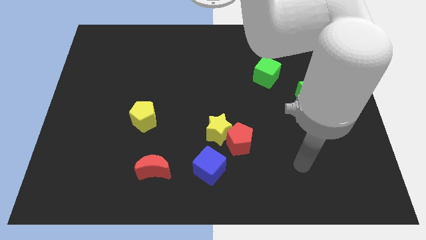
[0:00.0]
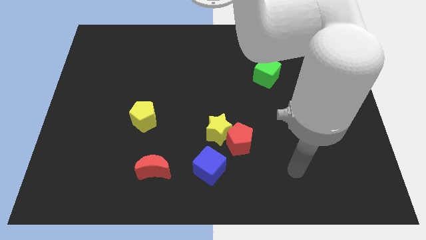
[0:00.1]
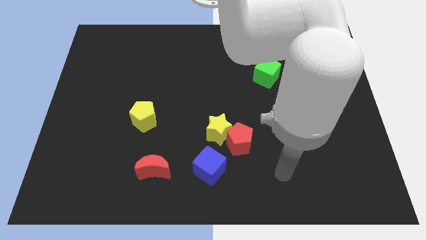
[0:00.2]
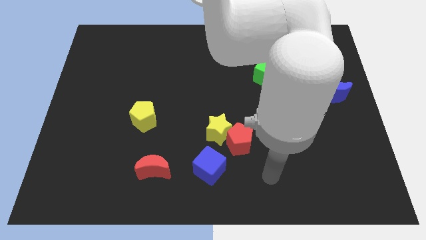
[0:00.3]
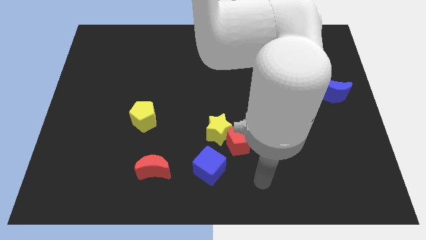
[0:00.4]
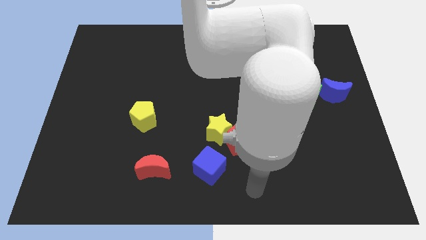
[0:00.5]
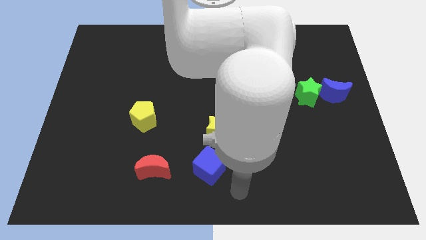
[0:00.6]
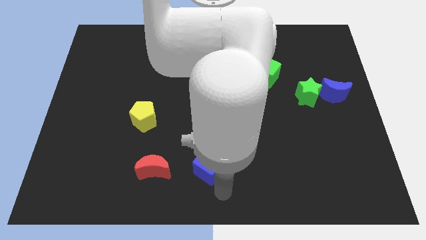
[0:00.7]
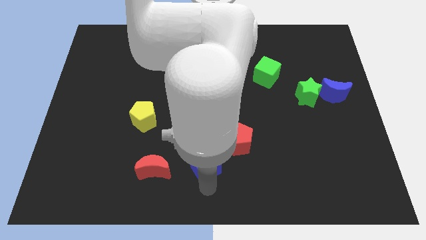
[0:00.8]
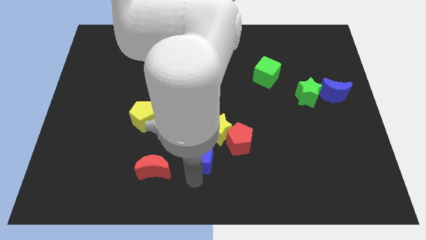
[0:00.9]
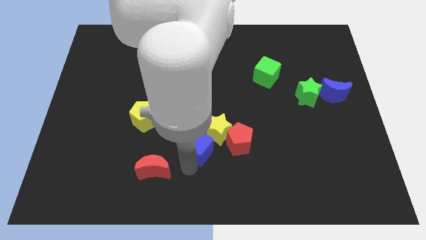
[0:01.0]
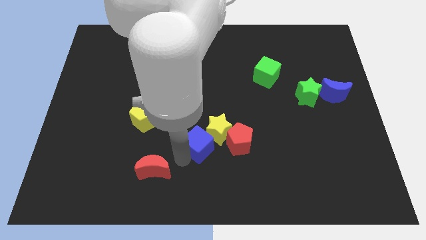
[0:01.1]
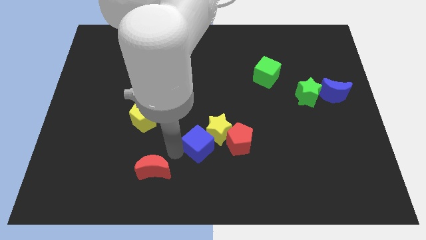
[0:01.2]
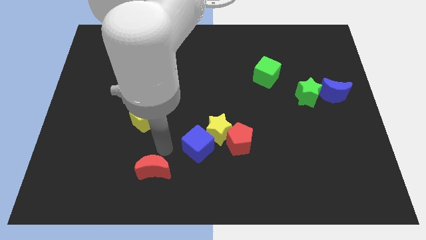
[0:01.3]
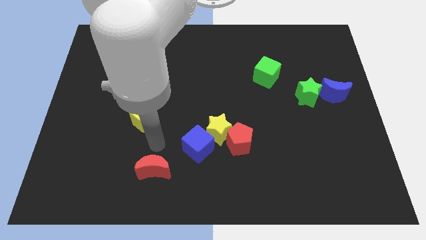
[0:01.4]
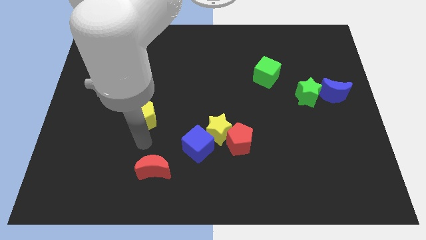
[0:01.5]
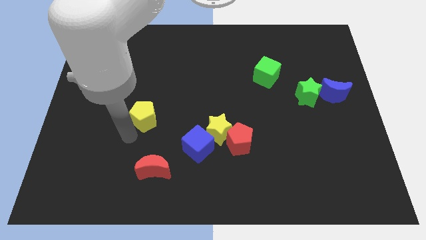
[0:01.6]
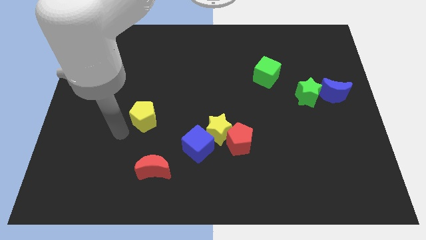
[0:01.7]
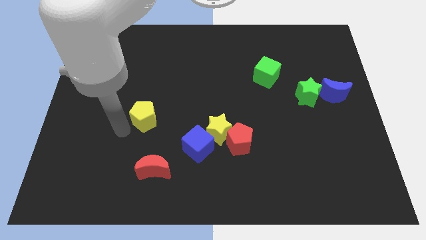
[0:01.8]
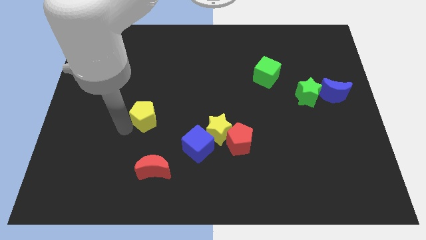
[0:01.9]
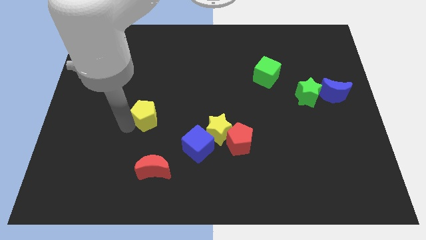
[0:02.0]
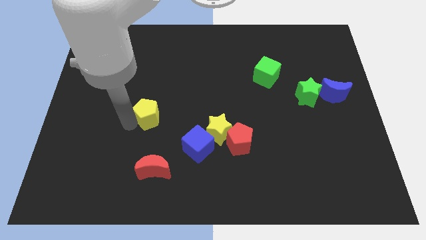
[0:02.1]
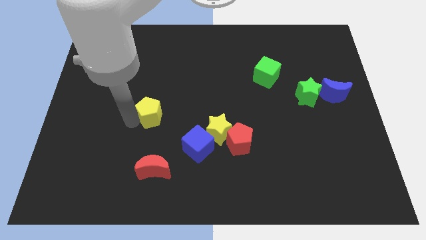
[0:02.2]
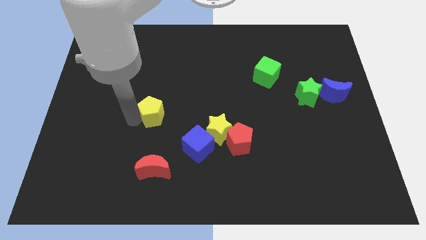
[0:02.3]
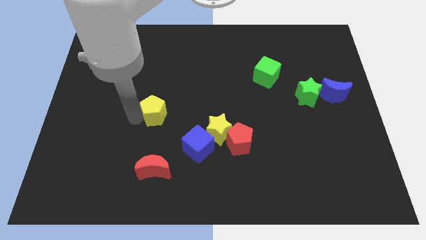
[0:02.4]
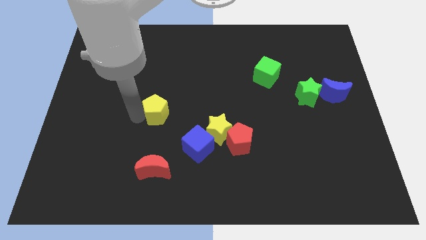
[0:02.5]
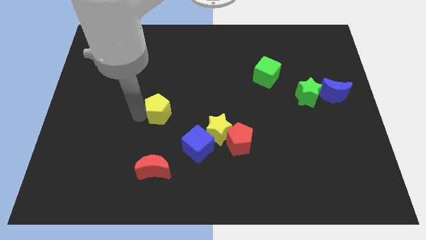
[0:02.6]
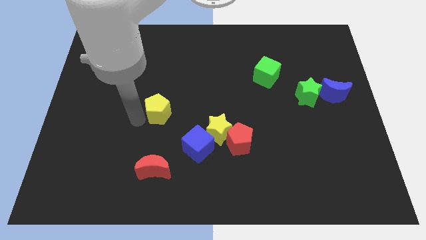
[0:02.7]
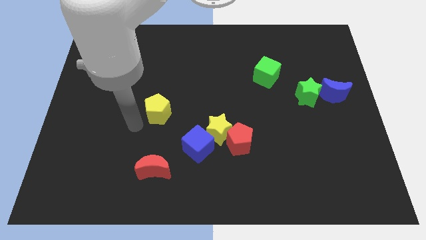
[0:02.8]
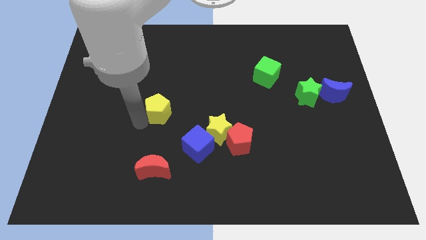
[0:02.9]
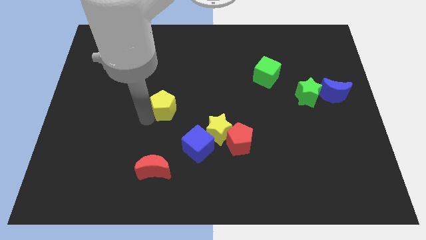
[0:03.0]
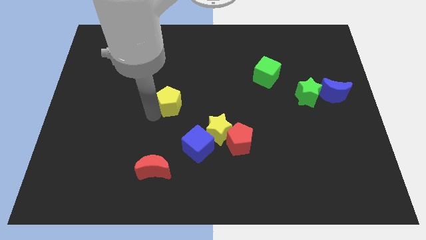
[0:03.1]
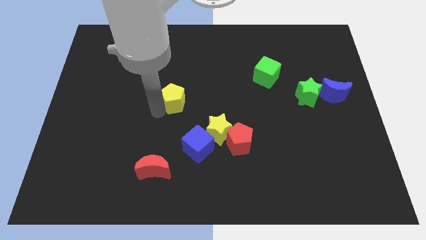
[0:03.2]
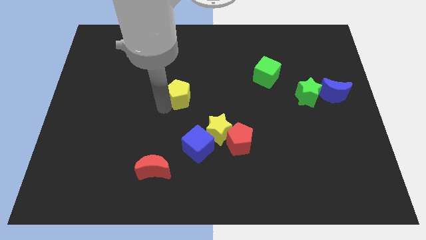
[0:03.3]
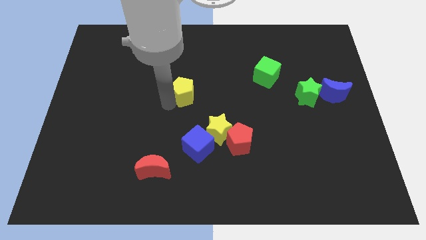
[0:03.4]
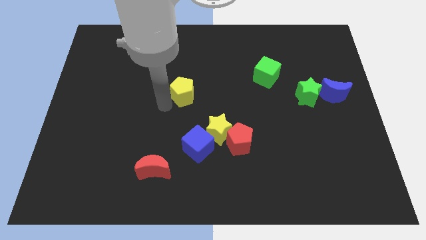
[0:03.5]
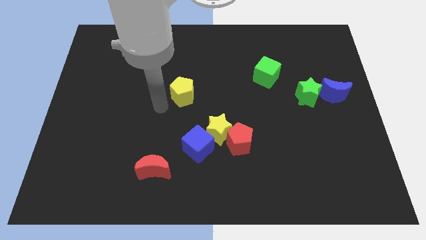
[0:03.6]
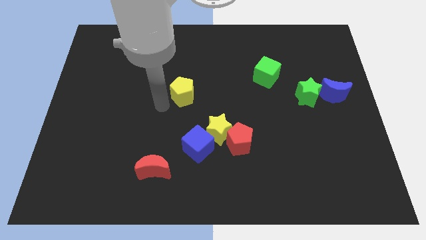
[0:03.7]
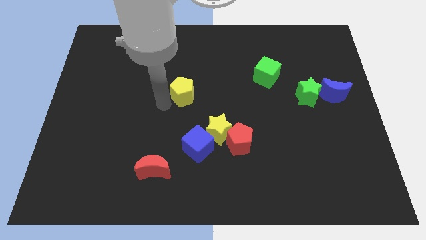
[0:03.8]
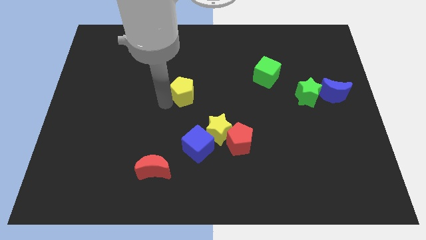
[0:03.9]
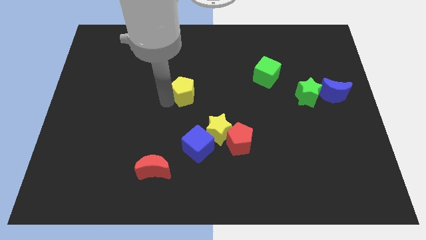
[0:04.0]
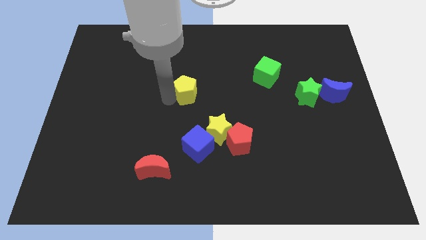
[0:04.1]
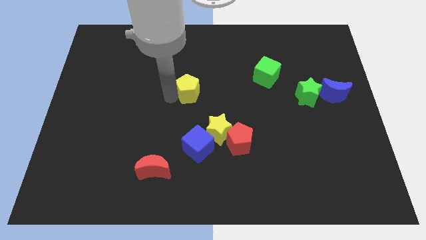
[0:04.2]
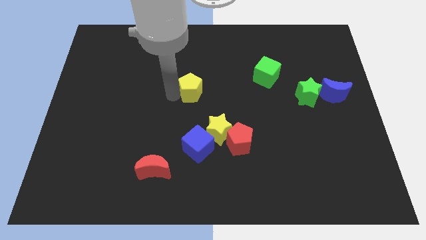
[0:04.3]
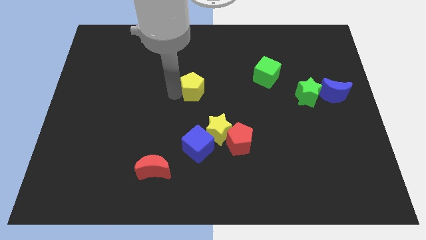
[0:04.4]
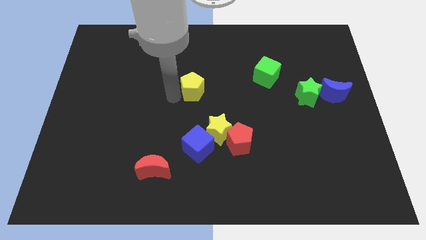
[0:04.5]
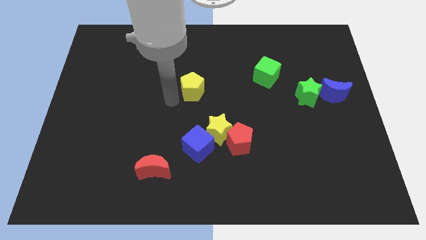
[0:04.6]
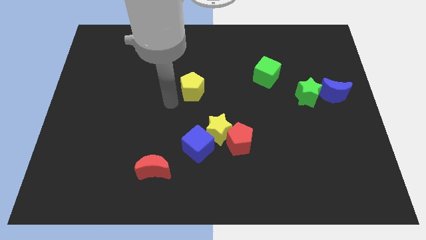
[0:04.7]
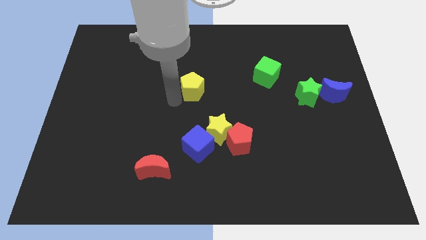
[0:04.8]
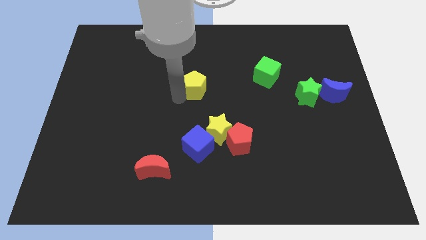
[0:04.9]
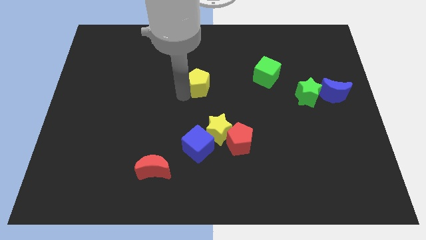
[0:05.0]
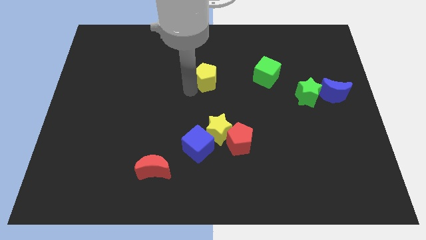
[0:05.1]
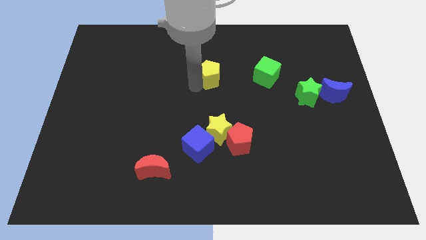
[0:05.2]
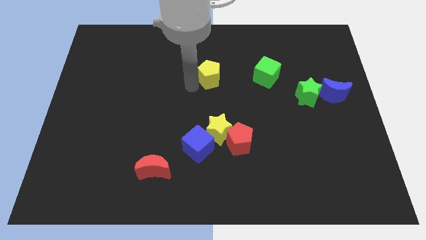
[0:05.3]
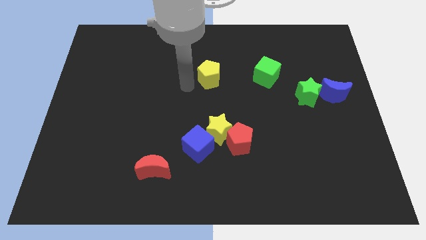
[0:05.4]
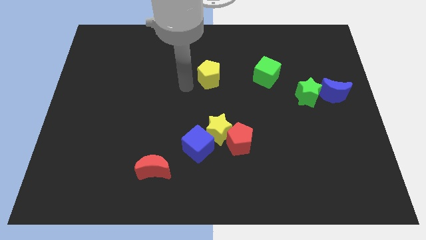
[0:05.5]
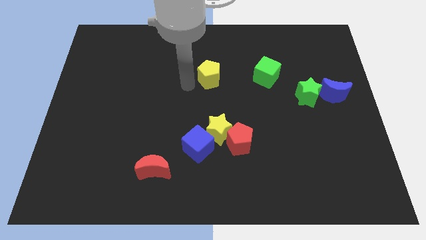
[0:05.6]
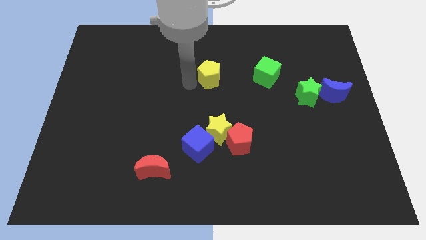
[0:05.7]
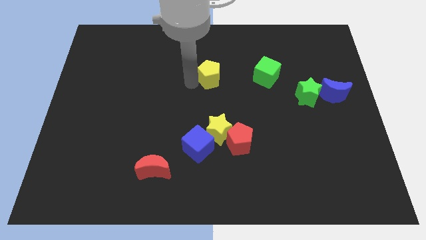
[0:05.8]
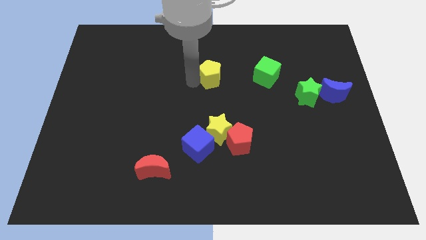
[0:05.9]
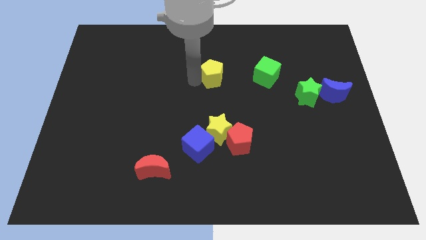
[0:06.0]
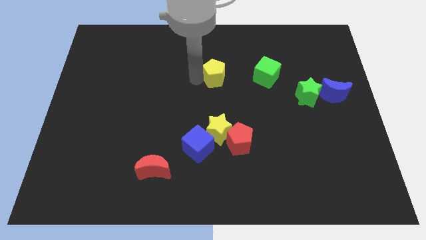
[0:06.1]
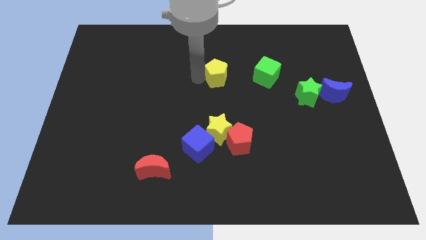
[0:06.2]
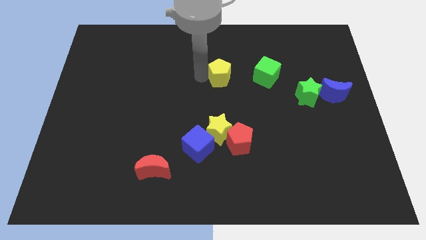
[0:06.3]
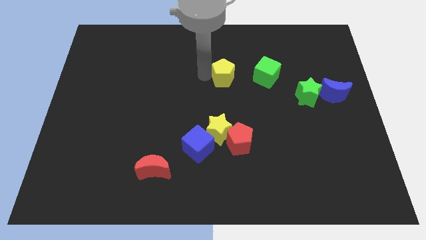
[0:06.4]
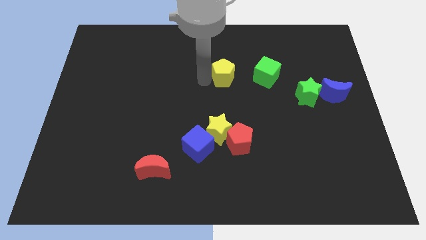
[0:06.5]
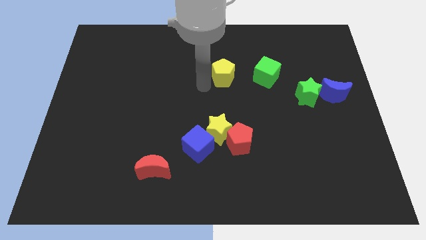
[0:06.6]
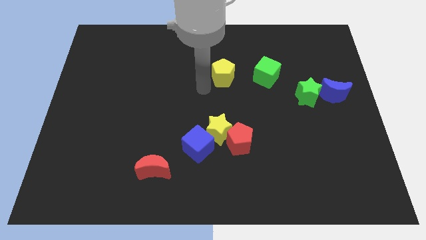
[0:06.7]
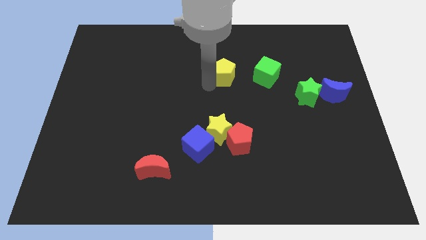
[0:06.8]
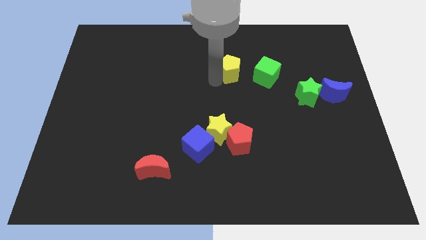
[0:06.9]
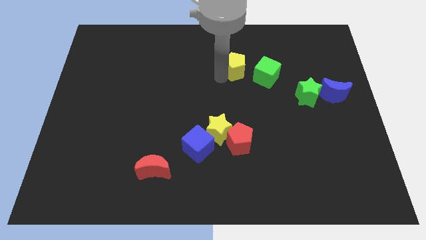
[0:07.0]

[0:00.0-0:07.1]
slide the yellow pentagon to the top left side of the green cube
